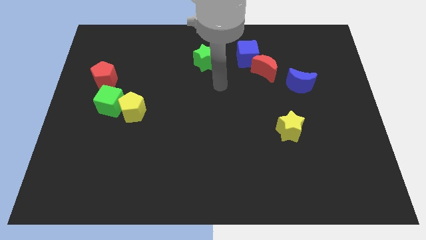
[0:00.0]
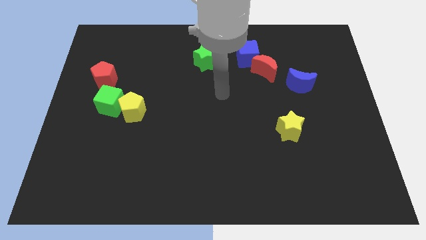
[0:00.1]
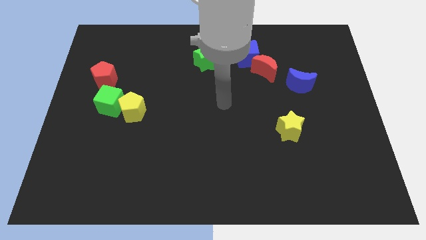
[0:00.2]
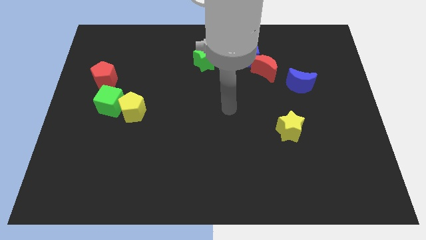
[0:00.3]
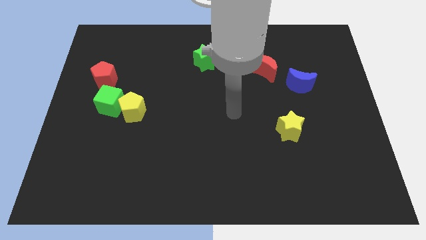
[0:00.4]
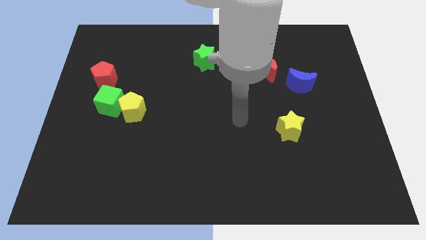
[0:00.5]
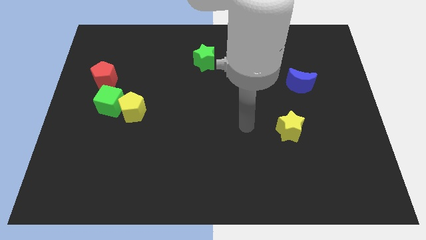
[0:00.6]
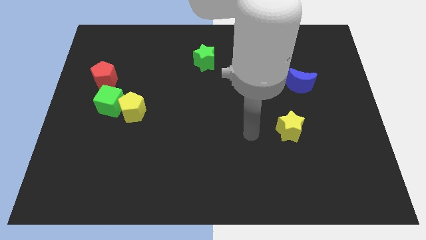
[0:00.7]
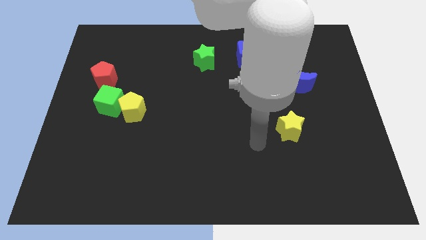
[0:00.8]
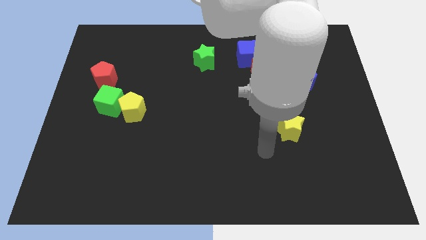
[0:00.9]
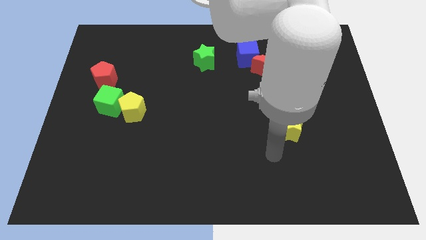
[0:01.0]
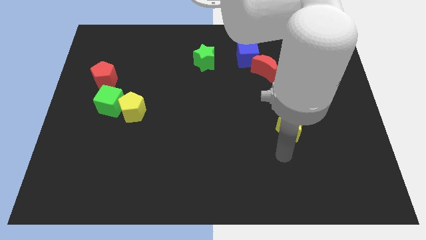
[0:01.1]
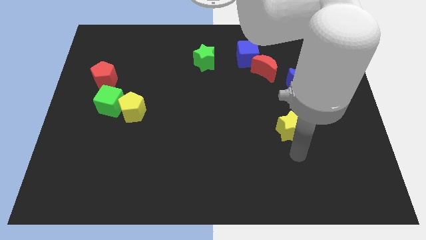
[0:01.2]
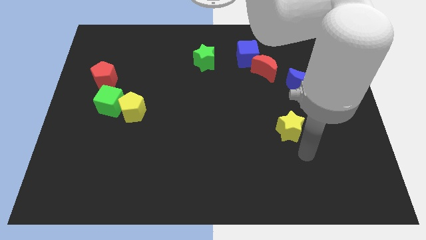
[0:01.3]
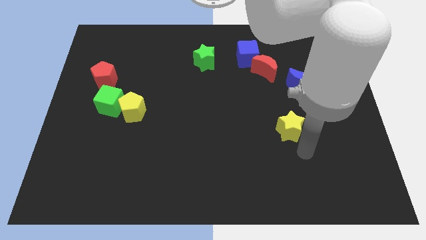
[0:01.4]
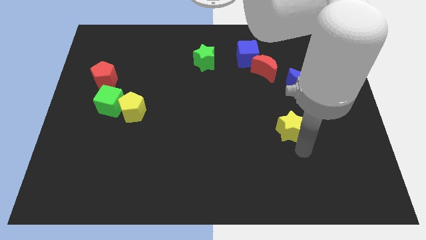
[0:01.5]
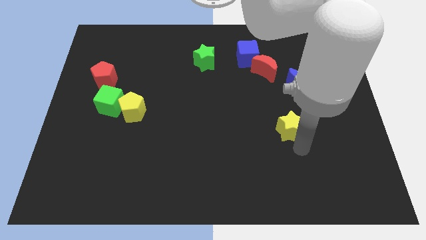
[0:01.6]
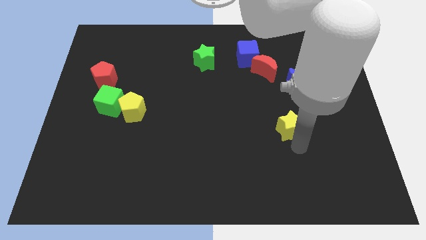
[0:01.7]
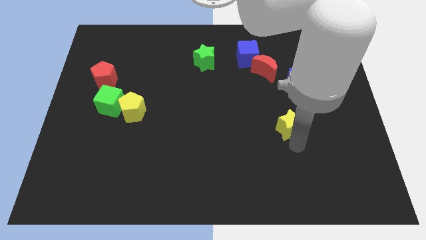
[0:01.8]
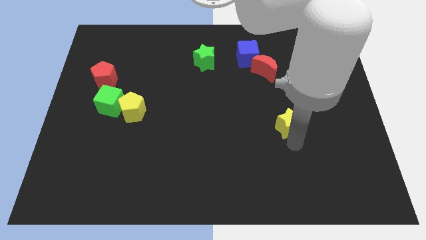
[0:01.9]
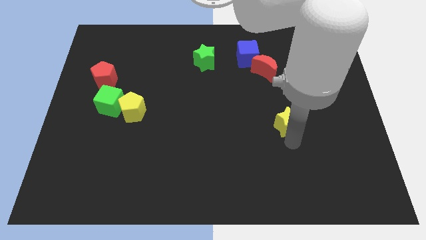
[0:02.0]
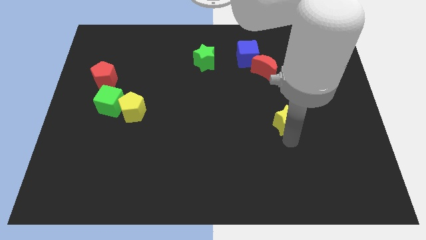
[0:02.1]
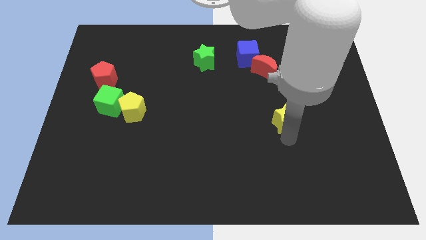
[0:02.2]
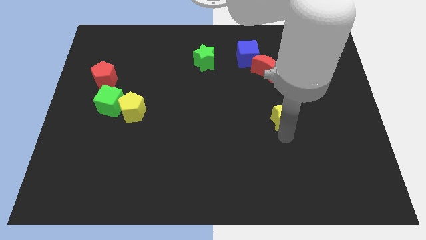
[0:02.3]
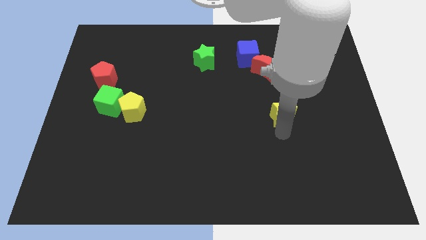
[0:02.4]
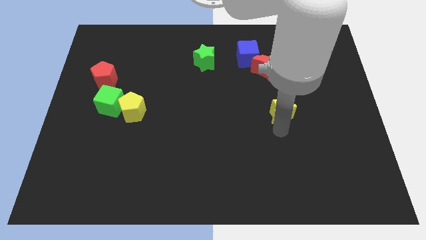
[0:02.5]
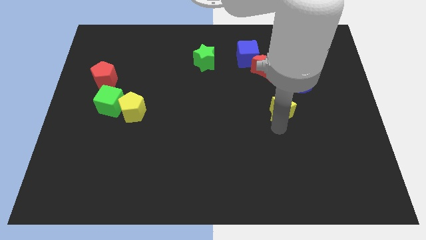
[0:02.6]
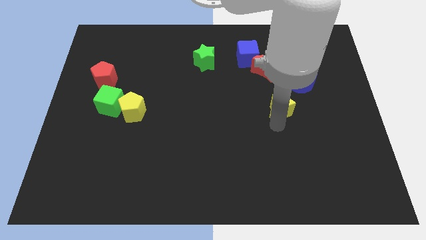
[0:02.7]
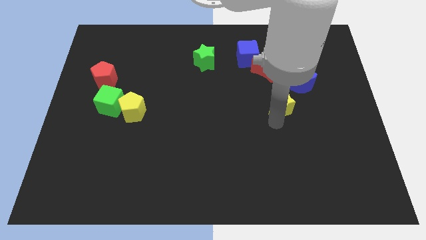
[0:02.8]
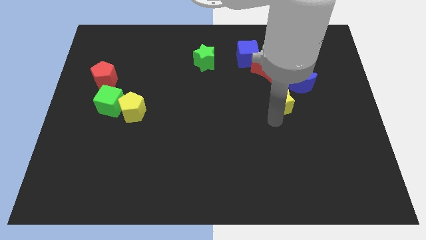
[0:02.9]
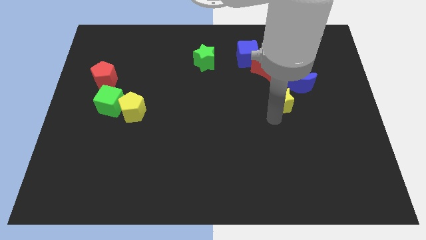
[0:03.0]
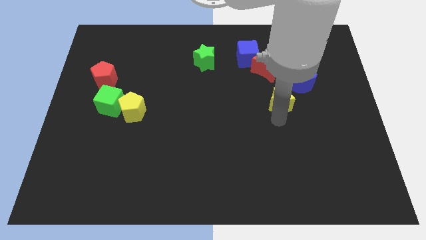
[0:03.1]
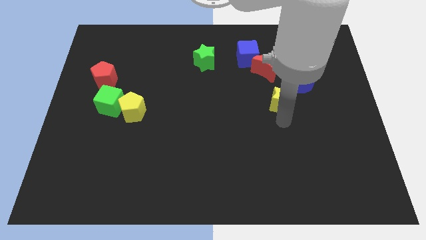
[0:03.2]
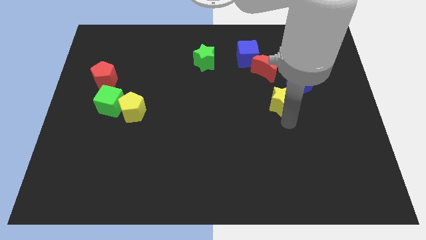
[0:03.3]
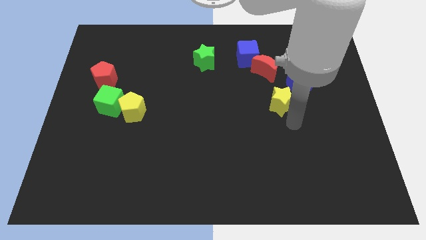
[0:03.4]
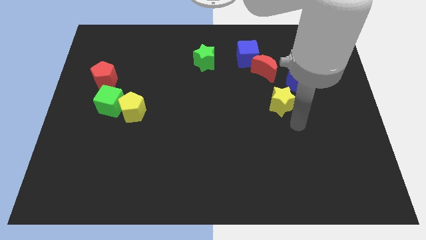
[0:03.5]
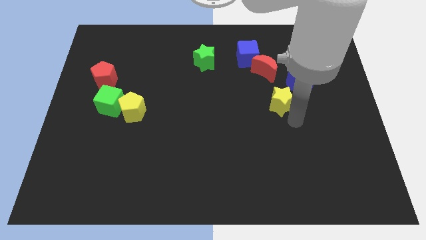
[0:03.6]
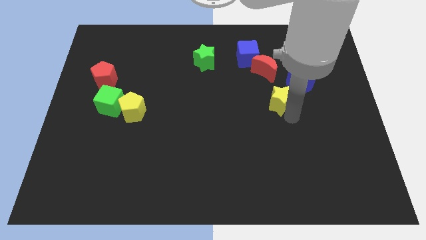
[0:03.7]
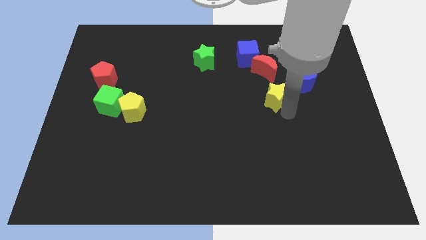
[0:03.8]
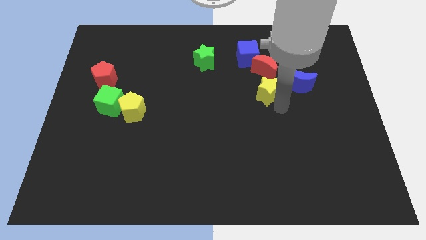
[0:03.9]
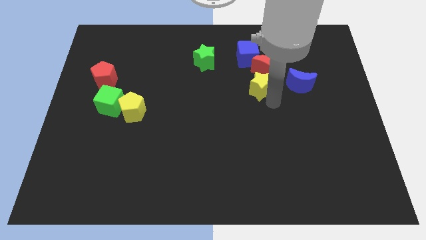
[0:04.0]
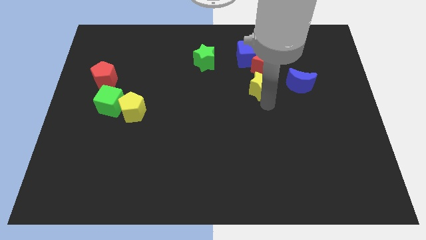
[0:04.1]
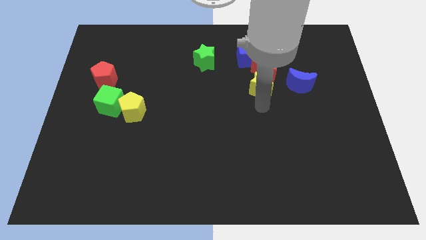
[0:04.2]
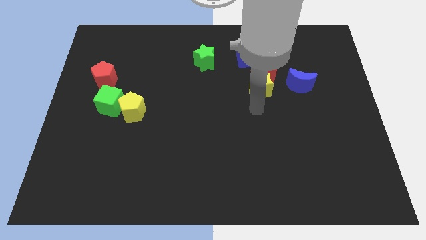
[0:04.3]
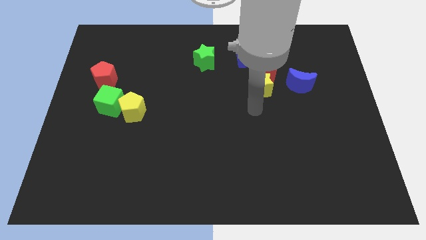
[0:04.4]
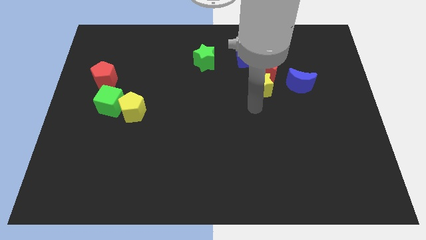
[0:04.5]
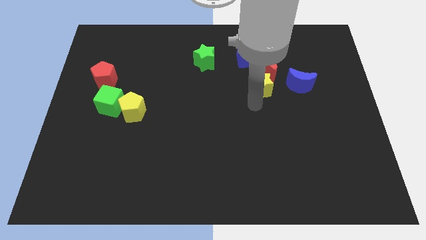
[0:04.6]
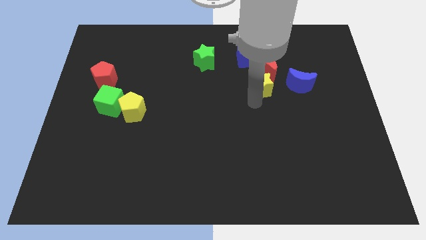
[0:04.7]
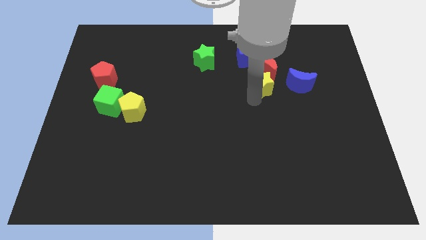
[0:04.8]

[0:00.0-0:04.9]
move the yellow star towards the red moon

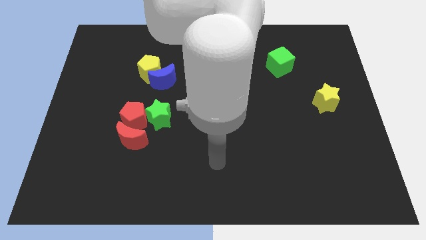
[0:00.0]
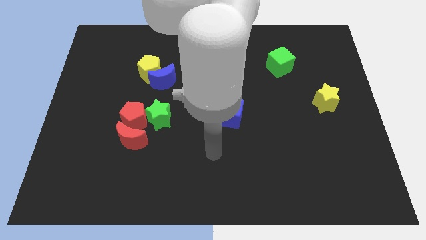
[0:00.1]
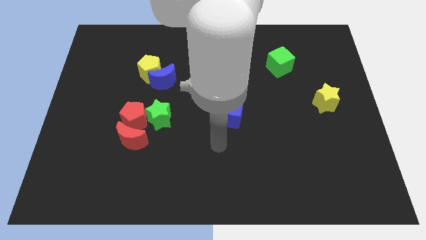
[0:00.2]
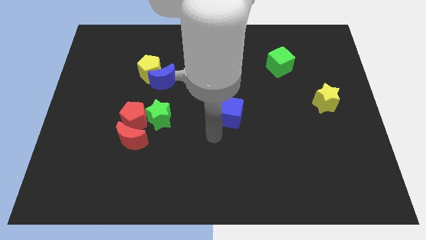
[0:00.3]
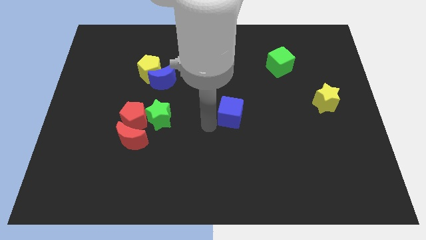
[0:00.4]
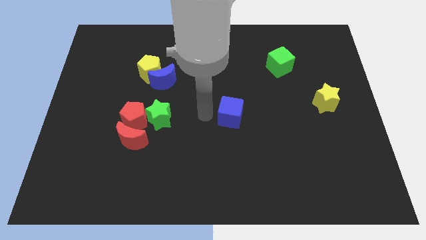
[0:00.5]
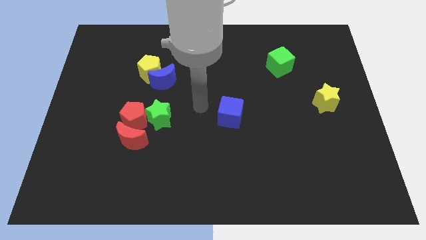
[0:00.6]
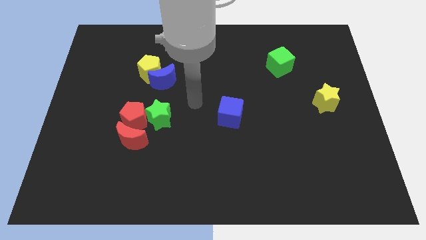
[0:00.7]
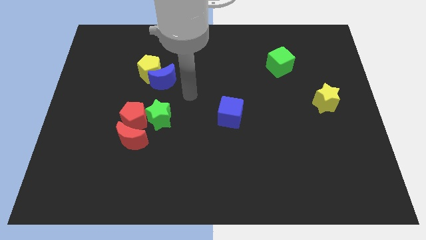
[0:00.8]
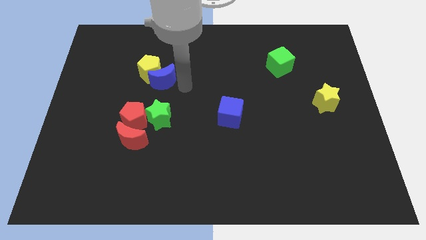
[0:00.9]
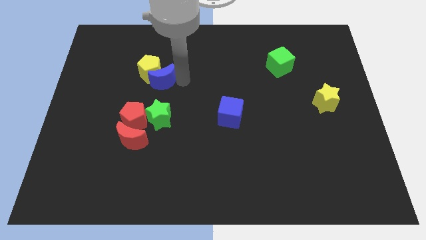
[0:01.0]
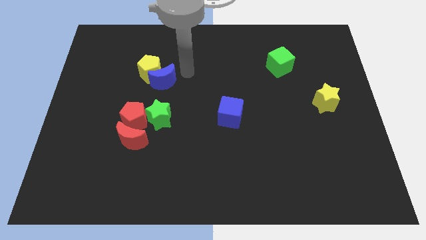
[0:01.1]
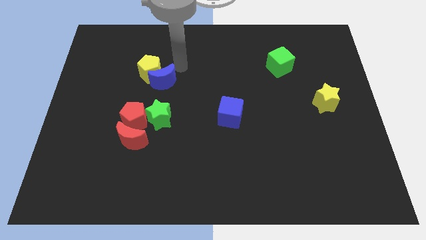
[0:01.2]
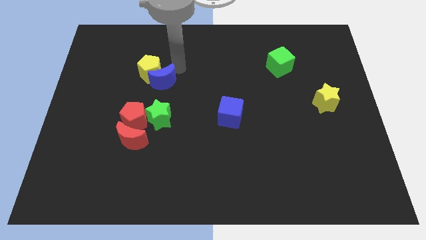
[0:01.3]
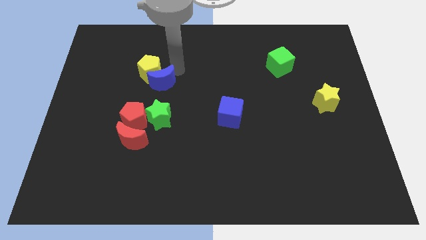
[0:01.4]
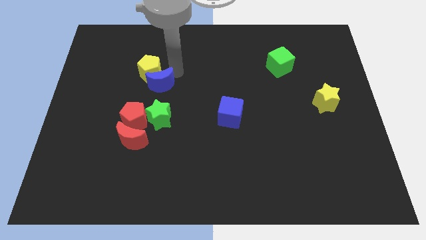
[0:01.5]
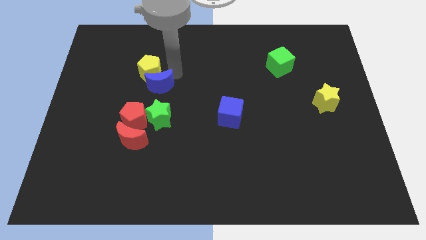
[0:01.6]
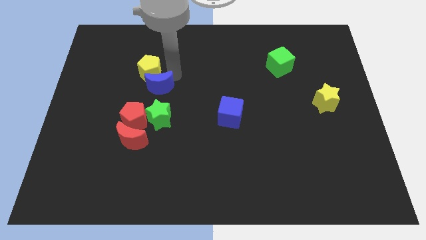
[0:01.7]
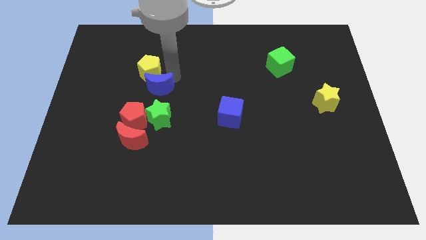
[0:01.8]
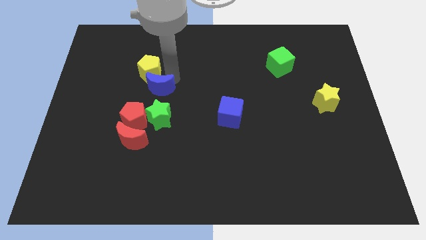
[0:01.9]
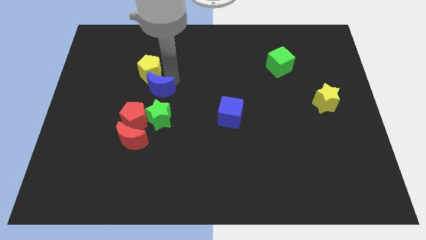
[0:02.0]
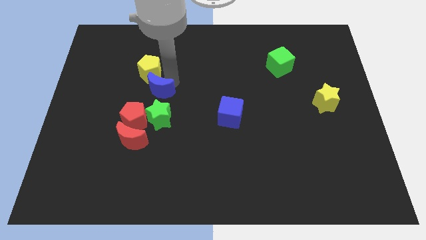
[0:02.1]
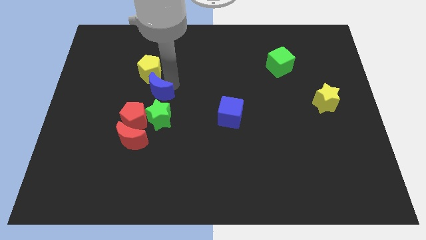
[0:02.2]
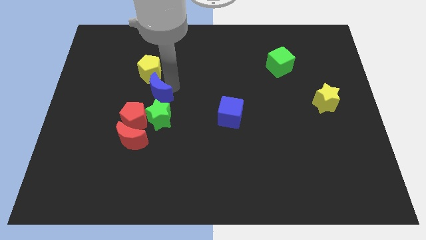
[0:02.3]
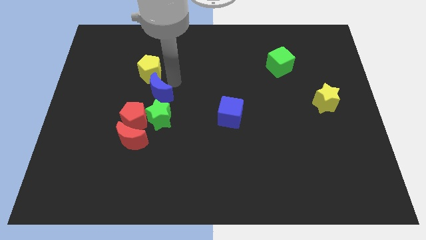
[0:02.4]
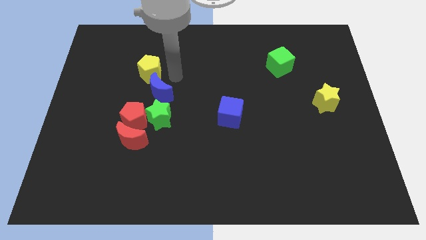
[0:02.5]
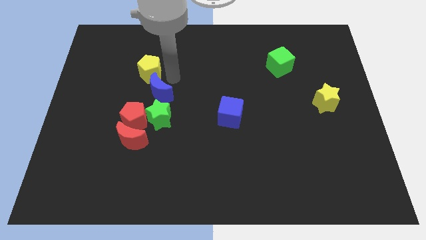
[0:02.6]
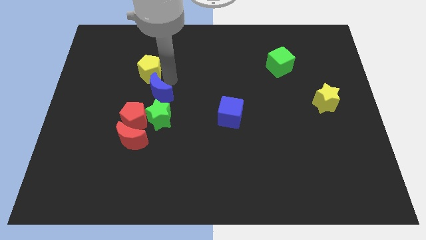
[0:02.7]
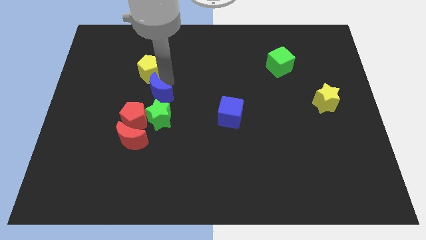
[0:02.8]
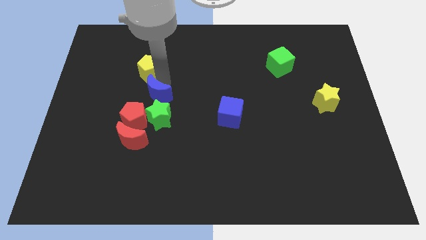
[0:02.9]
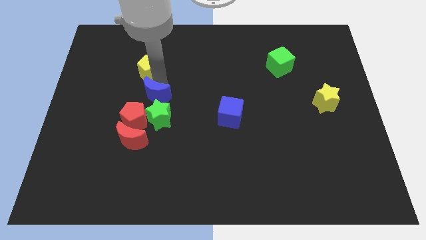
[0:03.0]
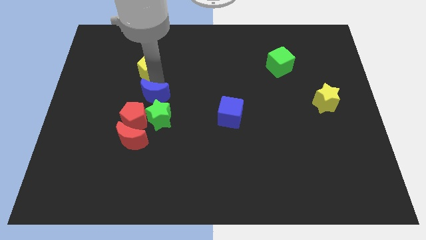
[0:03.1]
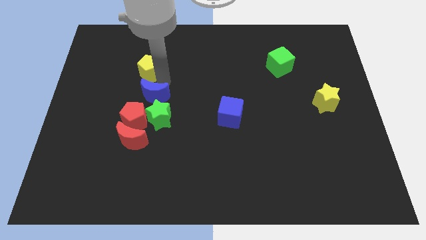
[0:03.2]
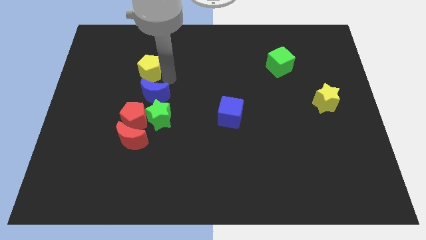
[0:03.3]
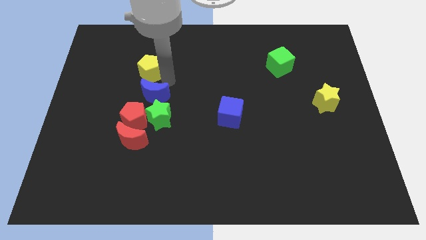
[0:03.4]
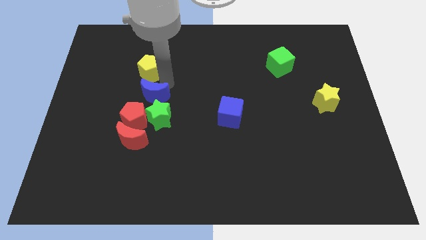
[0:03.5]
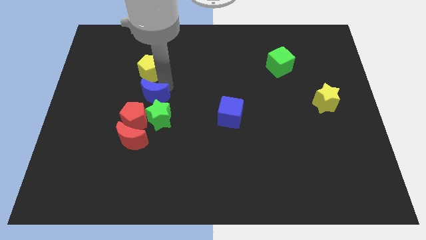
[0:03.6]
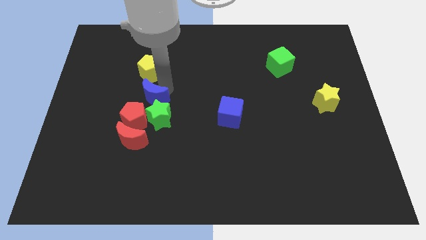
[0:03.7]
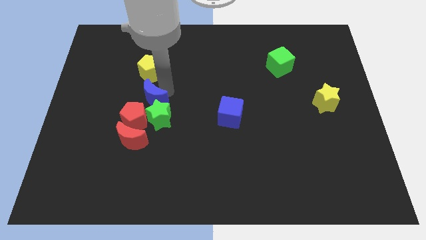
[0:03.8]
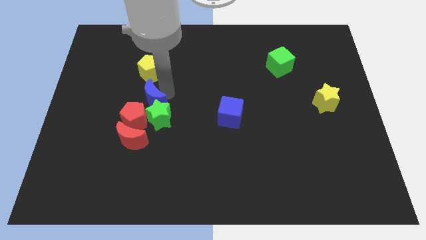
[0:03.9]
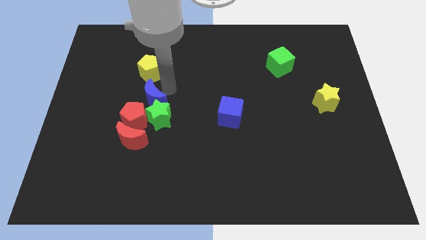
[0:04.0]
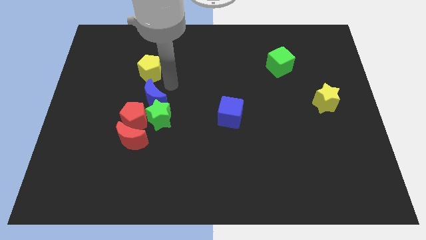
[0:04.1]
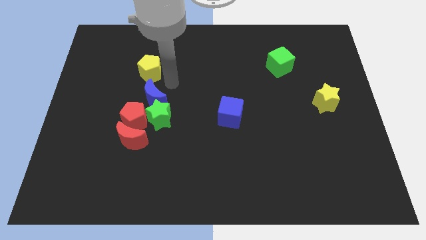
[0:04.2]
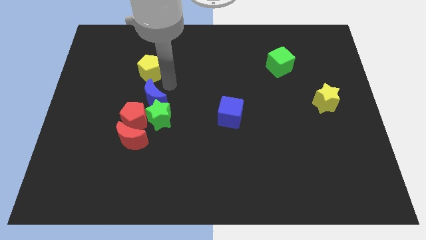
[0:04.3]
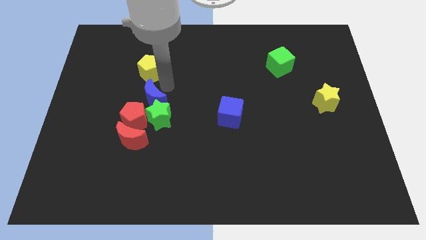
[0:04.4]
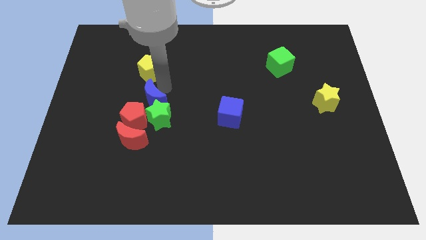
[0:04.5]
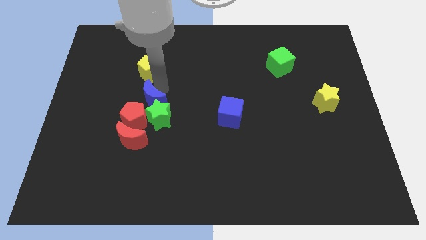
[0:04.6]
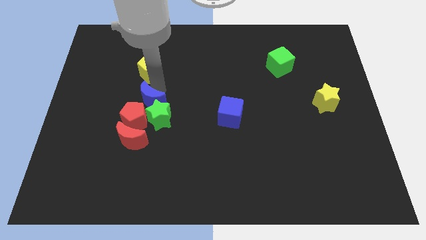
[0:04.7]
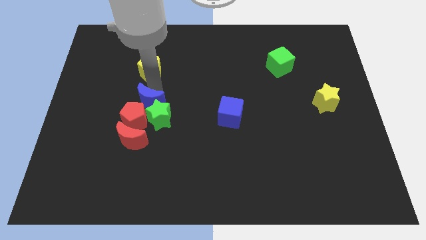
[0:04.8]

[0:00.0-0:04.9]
push the blue moon next to the red pentagon
